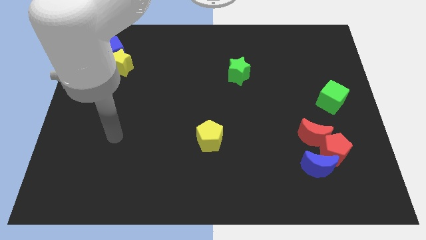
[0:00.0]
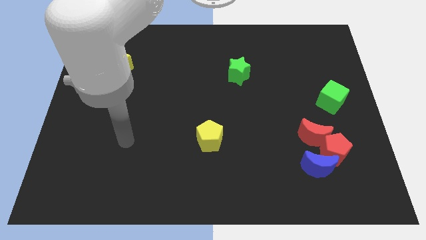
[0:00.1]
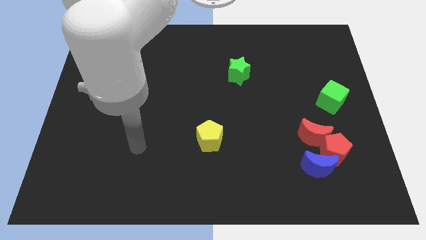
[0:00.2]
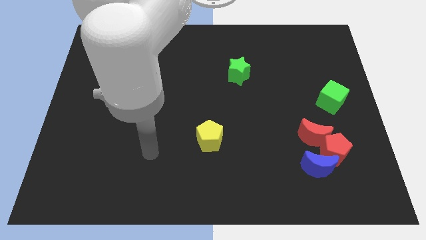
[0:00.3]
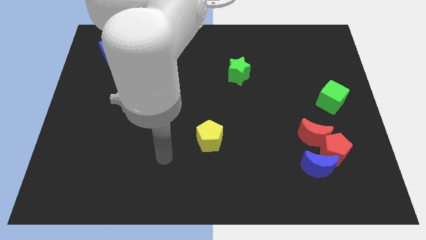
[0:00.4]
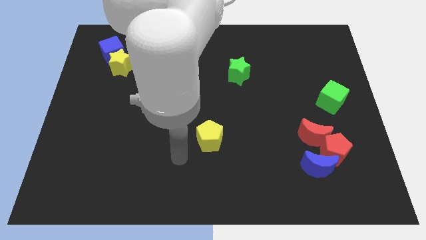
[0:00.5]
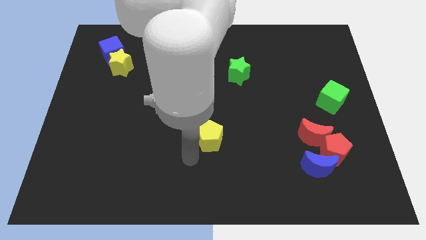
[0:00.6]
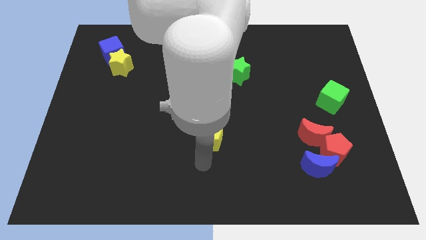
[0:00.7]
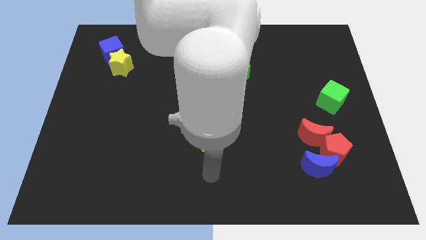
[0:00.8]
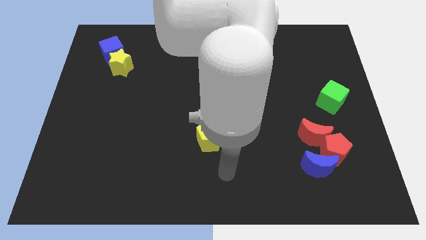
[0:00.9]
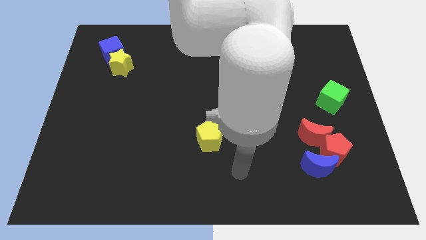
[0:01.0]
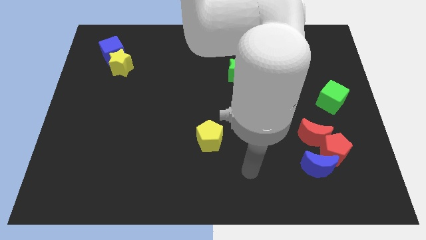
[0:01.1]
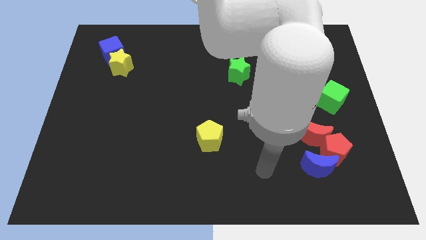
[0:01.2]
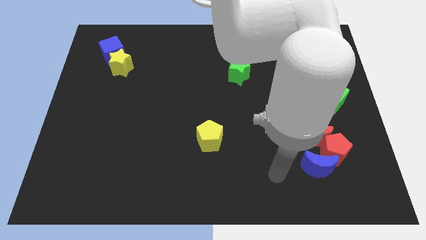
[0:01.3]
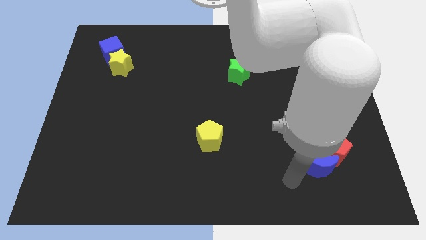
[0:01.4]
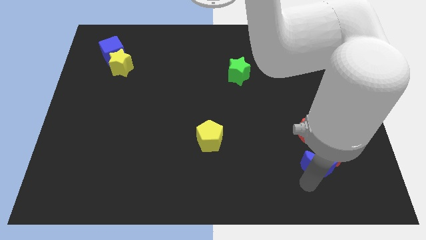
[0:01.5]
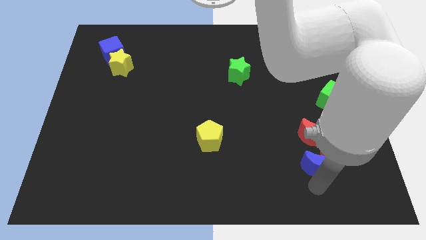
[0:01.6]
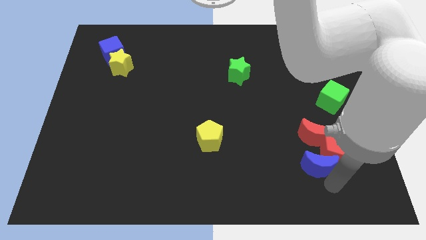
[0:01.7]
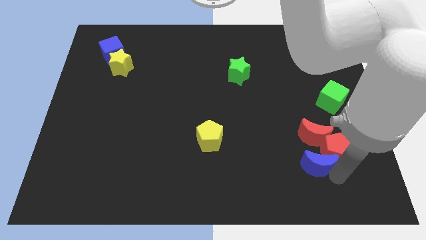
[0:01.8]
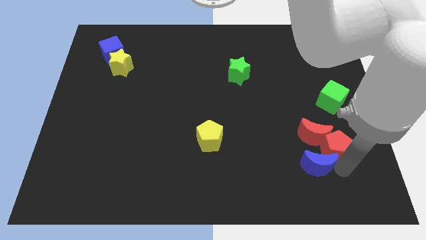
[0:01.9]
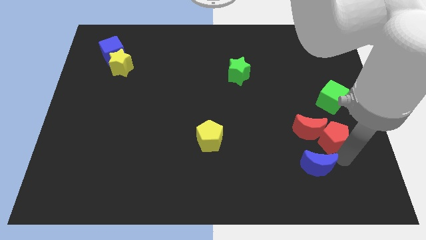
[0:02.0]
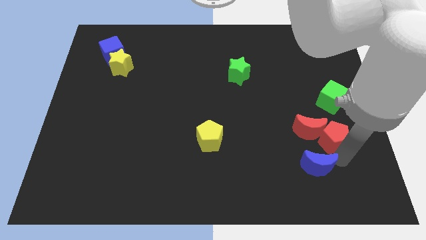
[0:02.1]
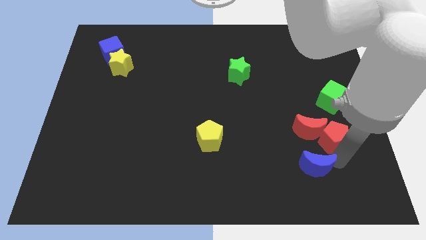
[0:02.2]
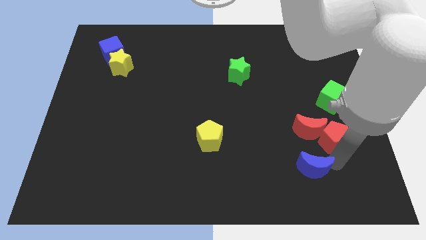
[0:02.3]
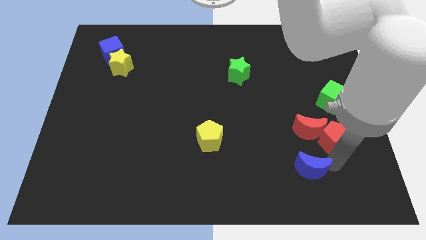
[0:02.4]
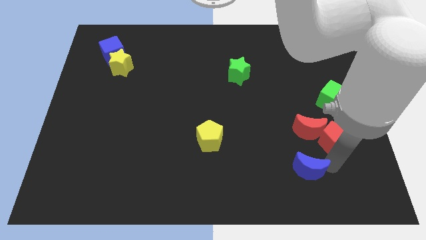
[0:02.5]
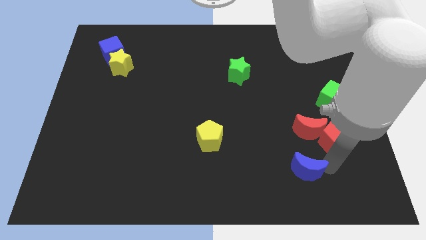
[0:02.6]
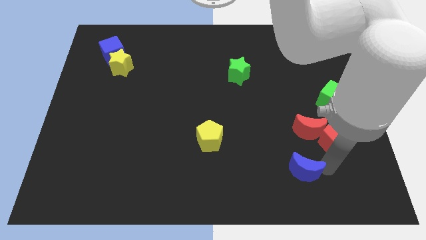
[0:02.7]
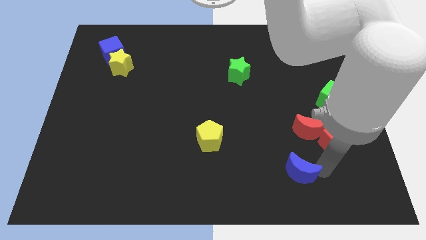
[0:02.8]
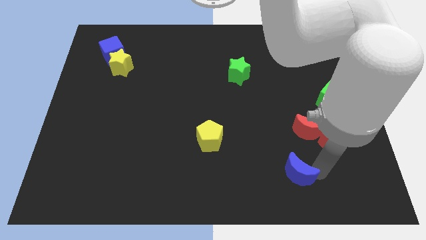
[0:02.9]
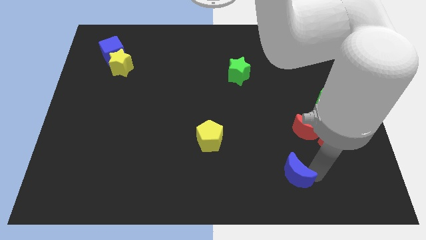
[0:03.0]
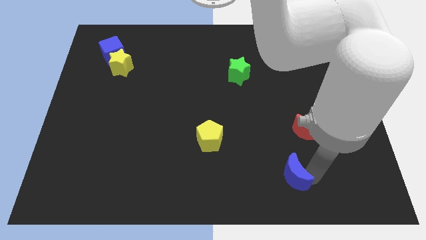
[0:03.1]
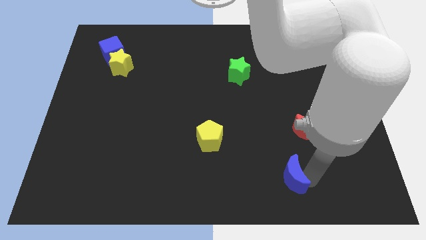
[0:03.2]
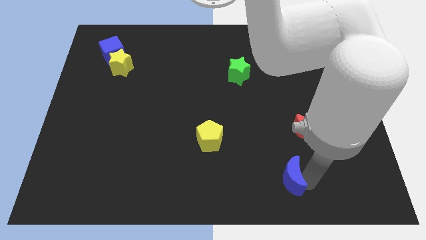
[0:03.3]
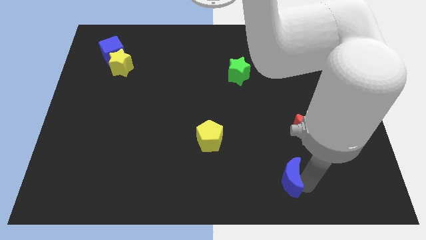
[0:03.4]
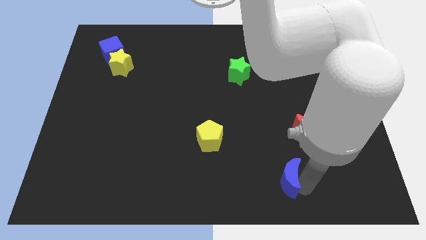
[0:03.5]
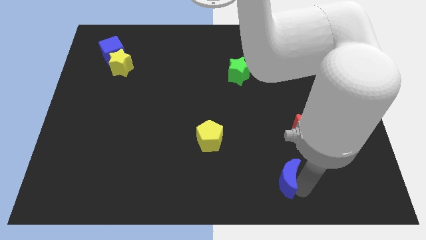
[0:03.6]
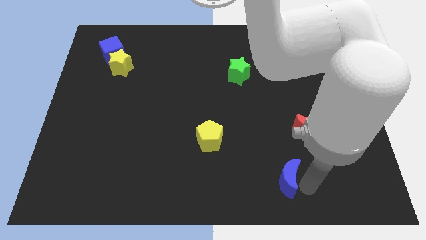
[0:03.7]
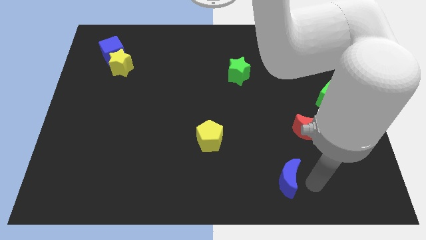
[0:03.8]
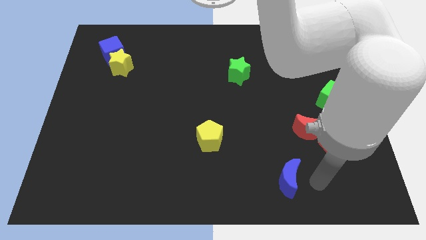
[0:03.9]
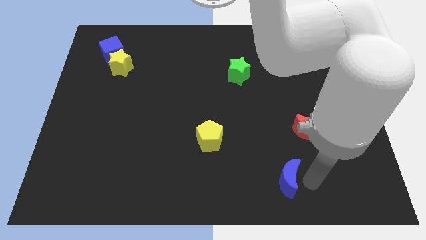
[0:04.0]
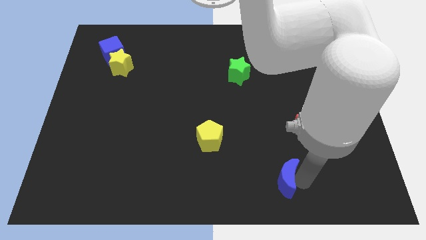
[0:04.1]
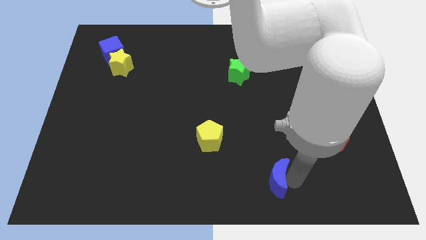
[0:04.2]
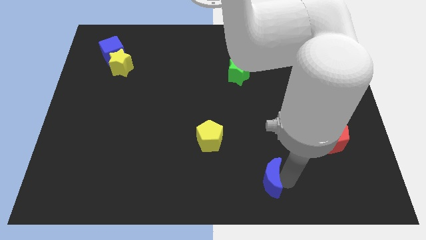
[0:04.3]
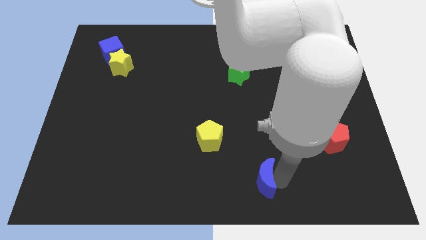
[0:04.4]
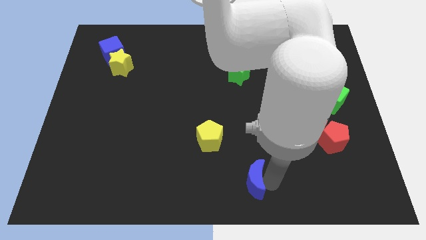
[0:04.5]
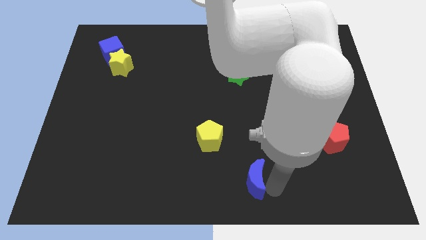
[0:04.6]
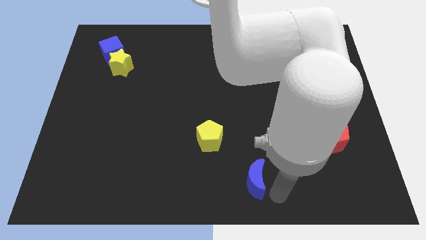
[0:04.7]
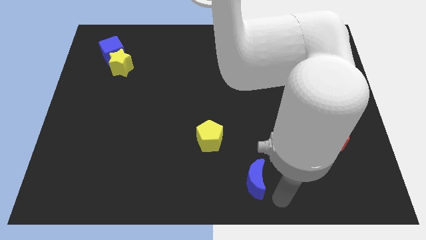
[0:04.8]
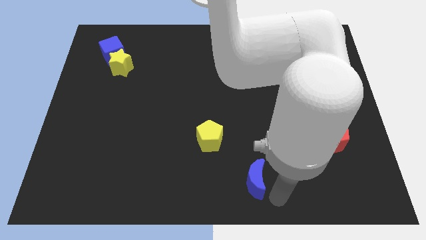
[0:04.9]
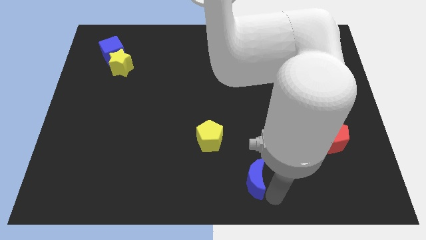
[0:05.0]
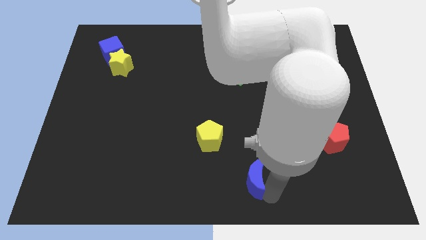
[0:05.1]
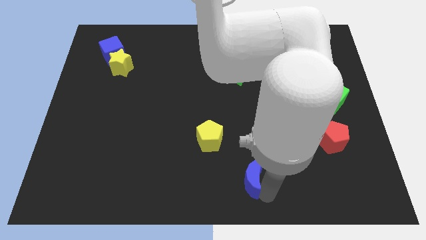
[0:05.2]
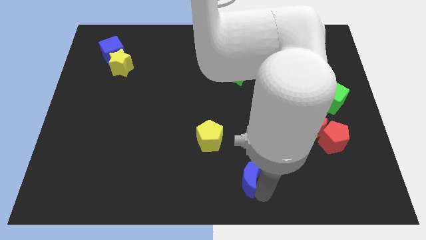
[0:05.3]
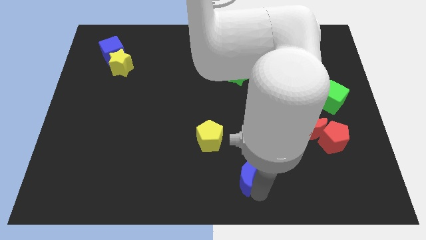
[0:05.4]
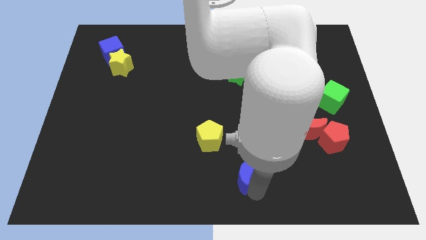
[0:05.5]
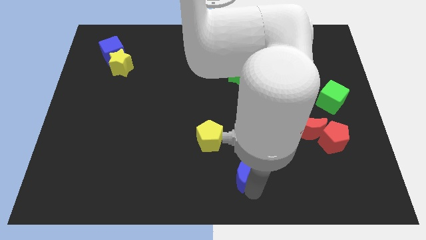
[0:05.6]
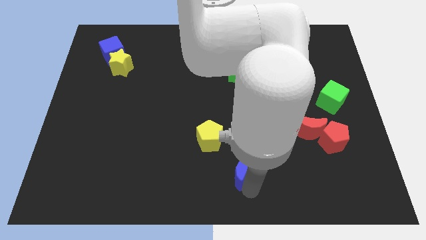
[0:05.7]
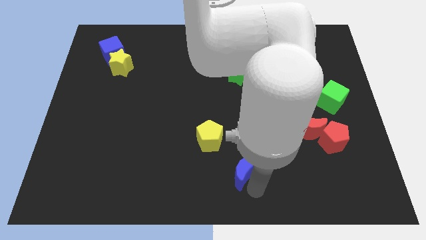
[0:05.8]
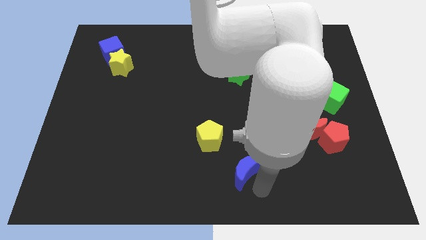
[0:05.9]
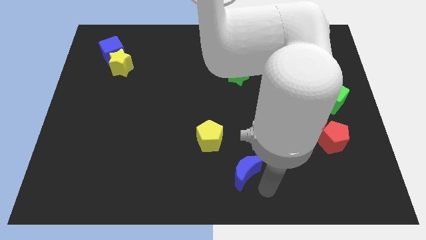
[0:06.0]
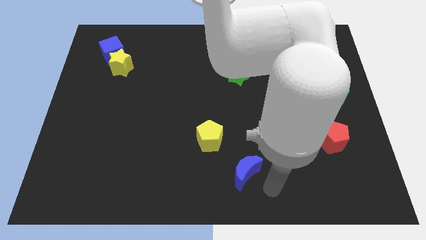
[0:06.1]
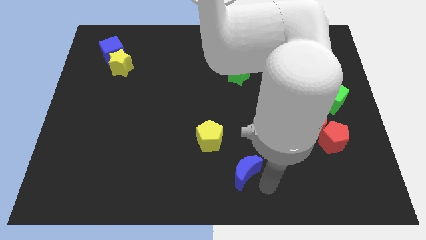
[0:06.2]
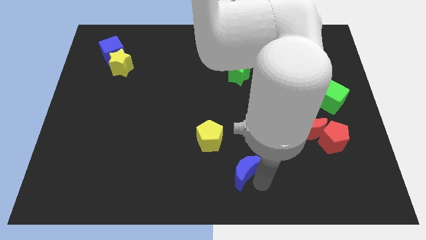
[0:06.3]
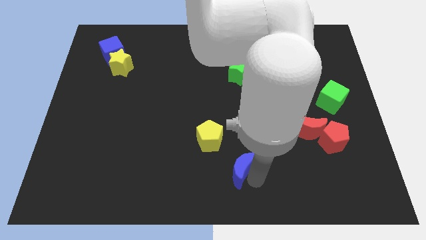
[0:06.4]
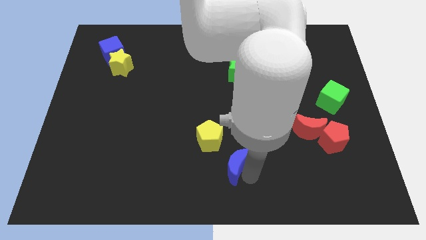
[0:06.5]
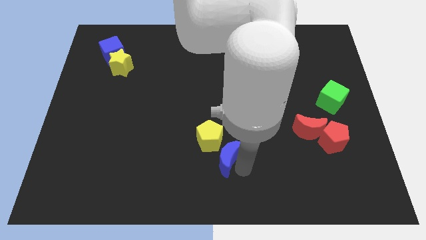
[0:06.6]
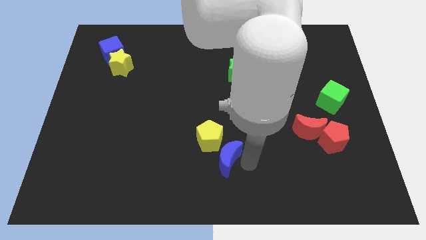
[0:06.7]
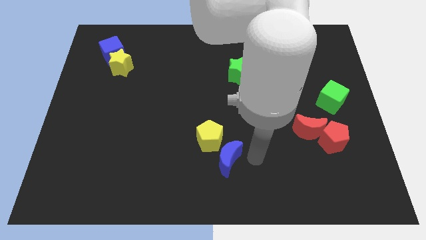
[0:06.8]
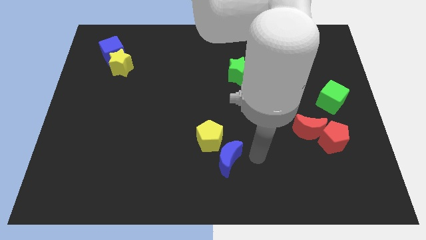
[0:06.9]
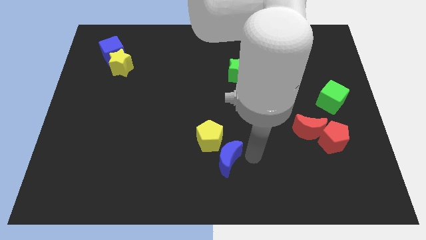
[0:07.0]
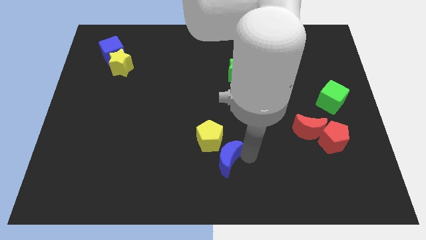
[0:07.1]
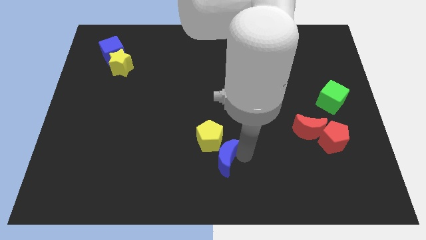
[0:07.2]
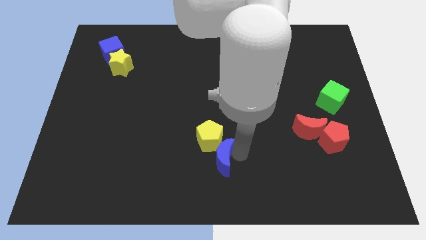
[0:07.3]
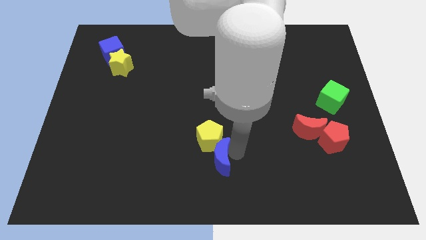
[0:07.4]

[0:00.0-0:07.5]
slide the blue moon to the left

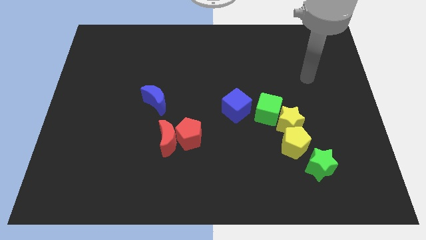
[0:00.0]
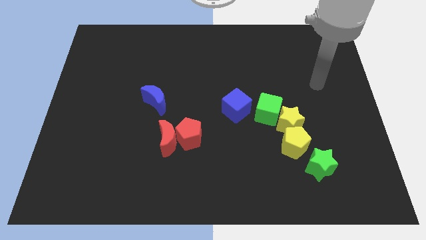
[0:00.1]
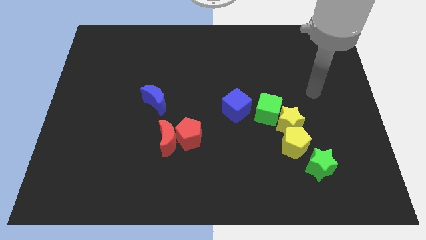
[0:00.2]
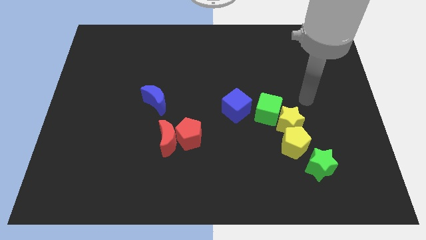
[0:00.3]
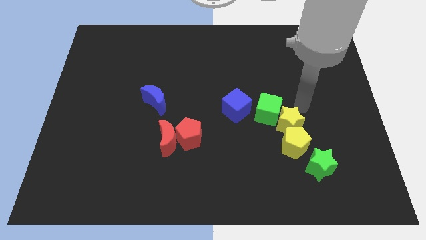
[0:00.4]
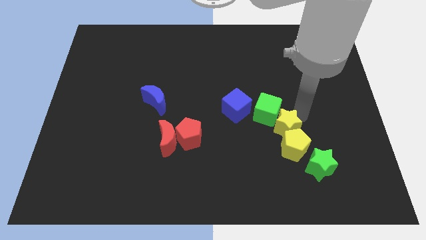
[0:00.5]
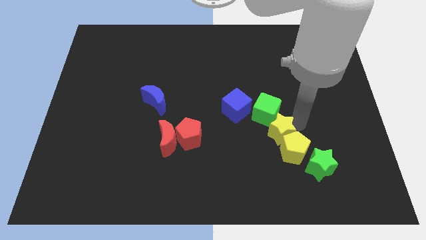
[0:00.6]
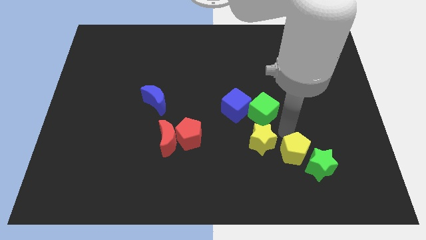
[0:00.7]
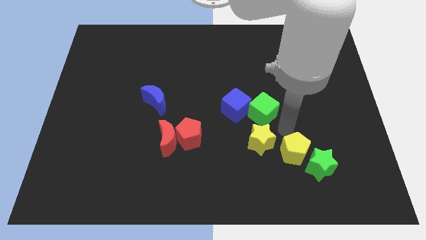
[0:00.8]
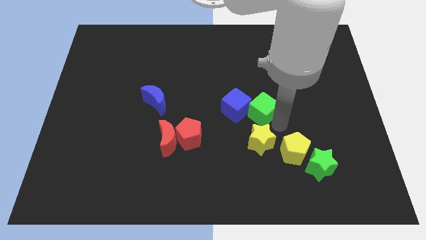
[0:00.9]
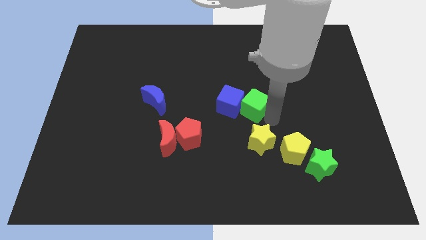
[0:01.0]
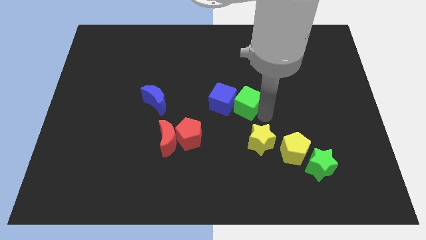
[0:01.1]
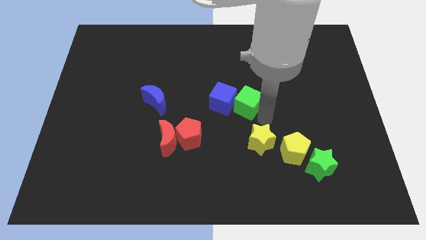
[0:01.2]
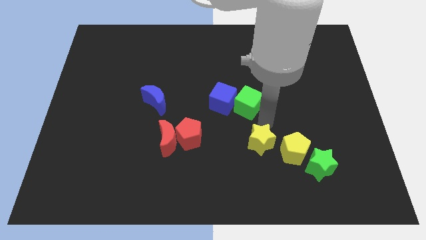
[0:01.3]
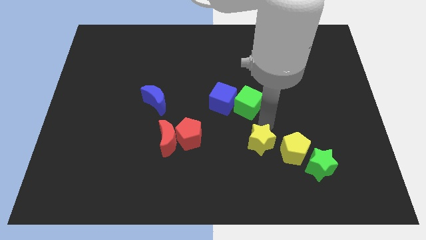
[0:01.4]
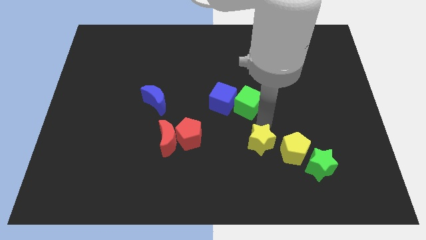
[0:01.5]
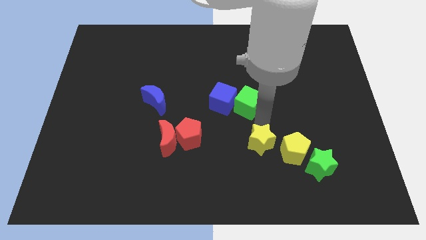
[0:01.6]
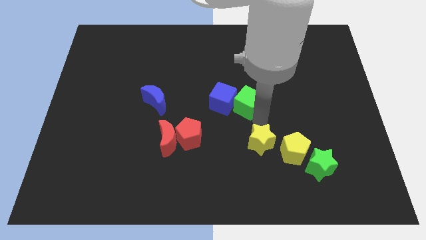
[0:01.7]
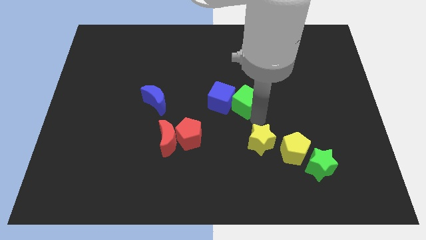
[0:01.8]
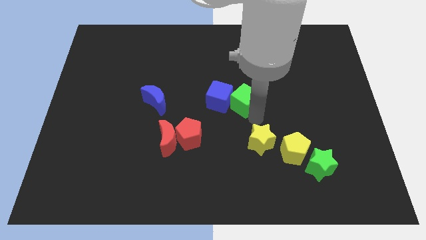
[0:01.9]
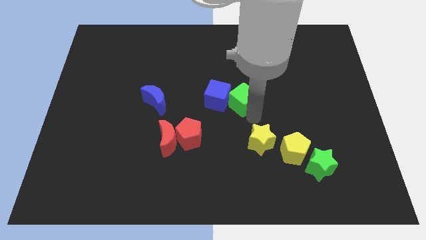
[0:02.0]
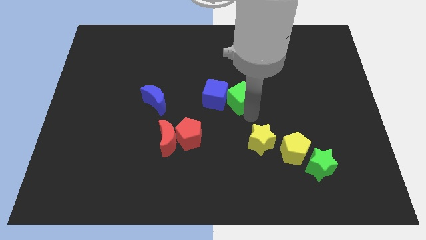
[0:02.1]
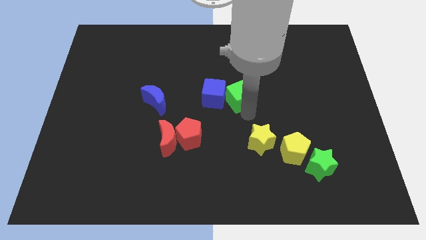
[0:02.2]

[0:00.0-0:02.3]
slide the green cube up and left diagonally a little
